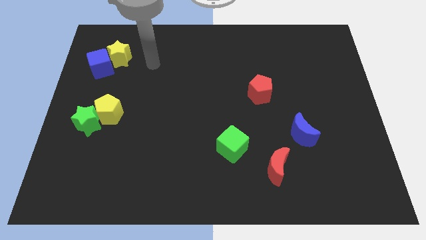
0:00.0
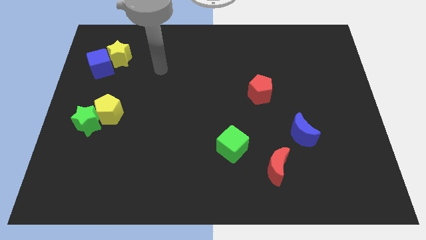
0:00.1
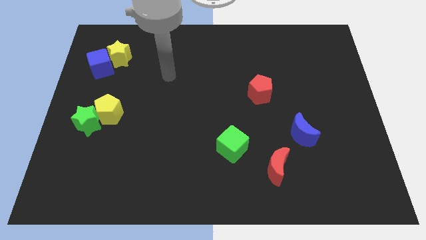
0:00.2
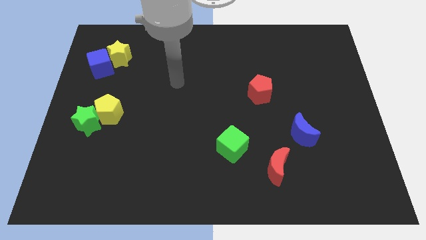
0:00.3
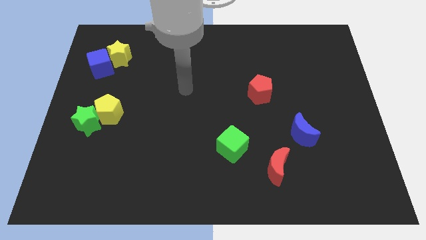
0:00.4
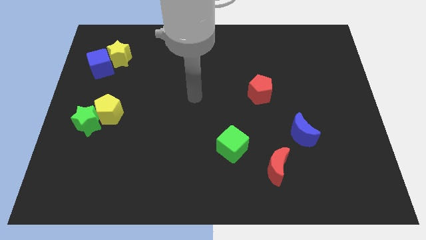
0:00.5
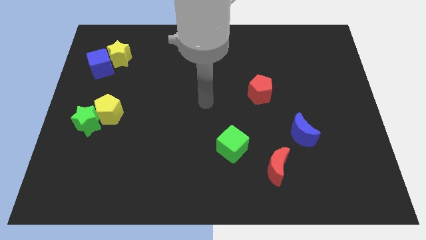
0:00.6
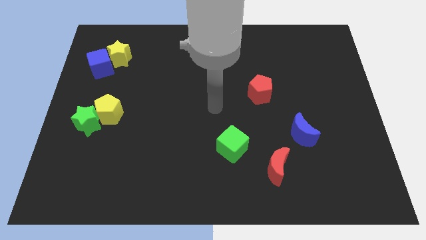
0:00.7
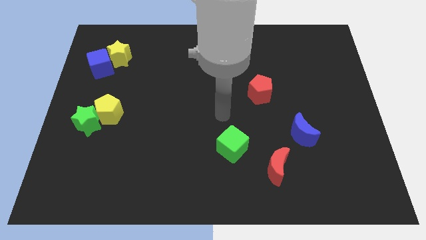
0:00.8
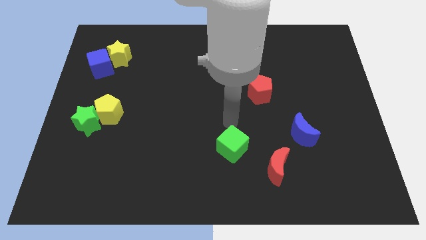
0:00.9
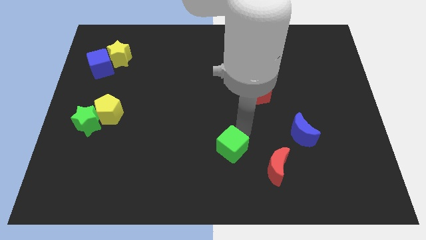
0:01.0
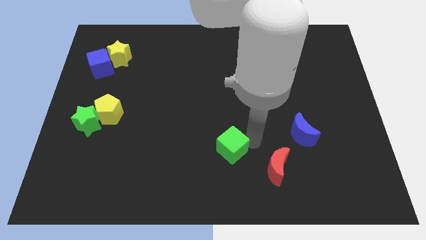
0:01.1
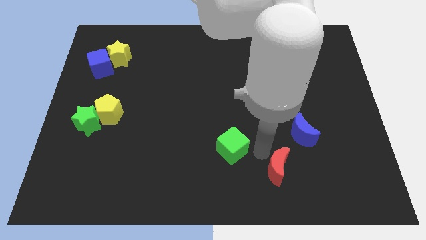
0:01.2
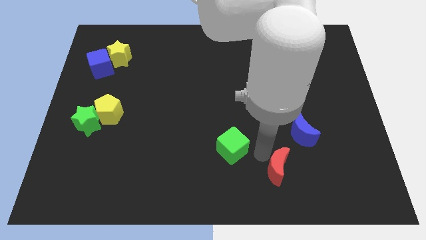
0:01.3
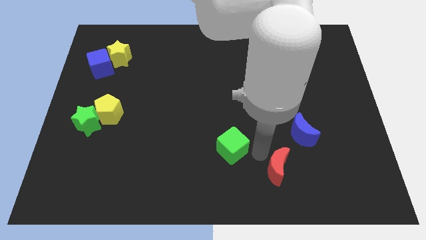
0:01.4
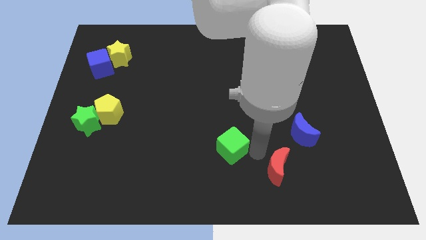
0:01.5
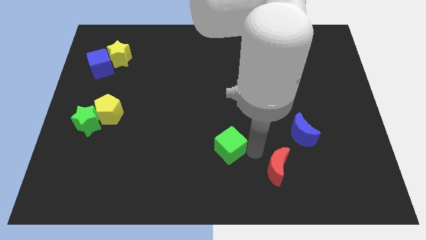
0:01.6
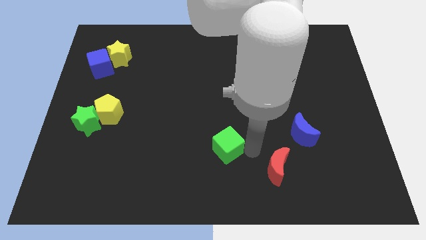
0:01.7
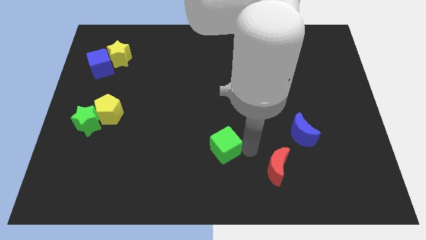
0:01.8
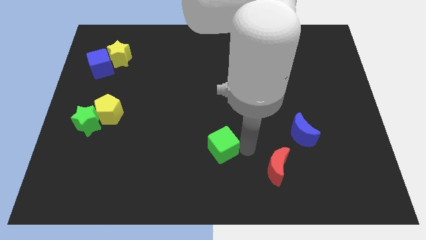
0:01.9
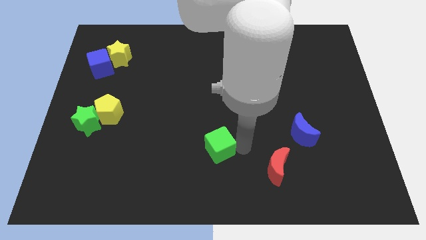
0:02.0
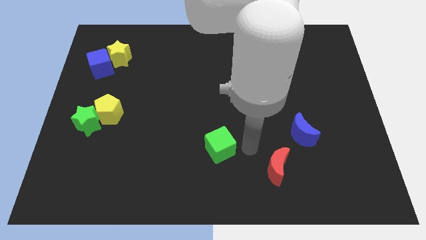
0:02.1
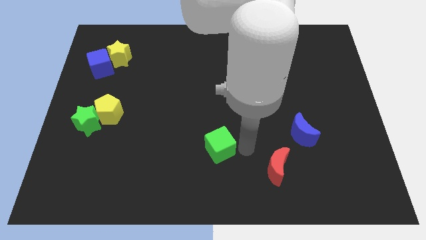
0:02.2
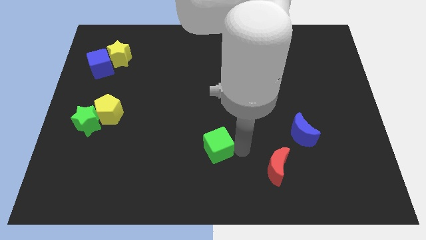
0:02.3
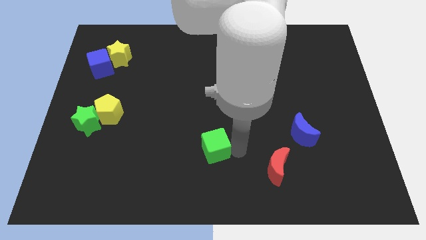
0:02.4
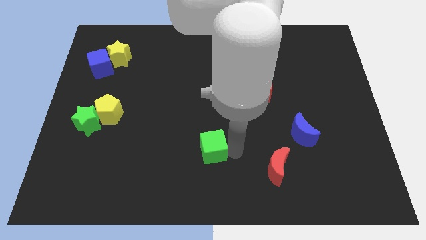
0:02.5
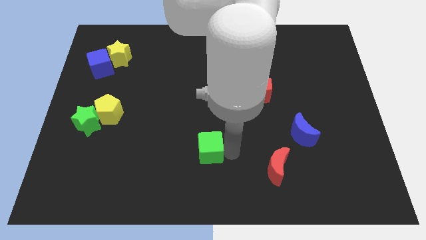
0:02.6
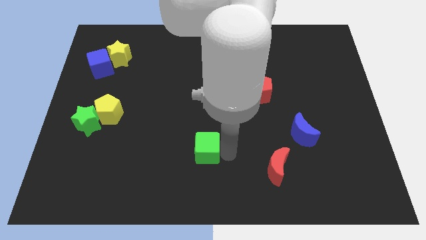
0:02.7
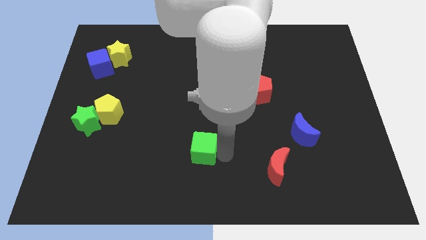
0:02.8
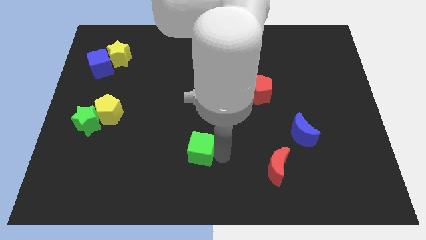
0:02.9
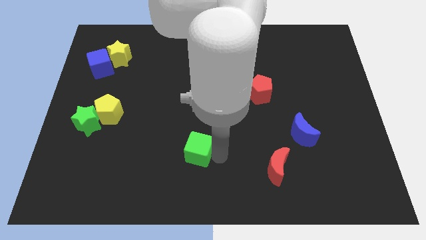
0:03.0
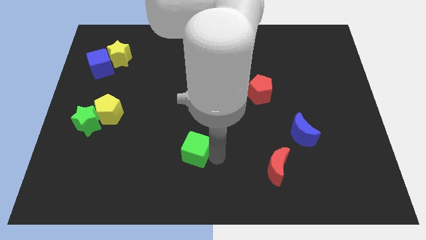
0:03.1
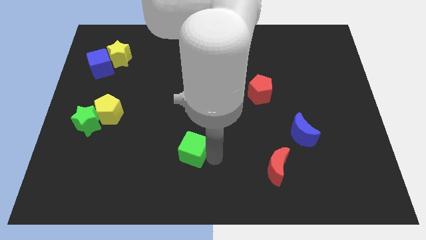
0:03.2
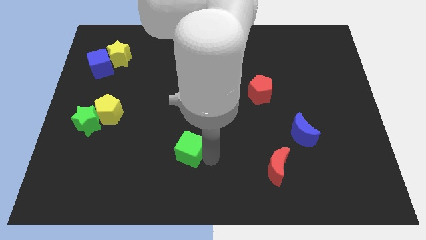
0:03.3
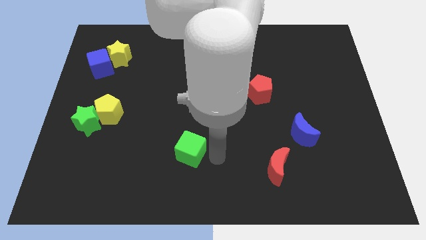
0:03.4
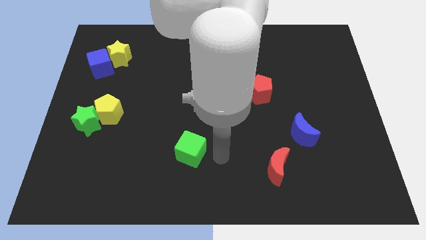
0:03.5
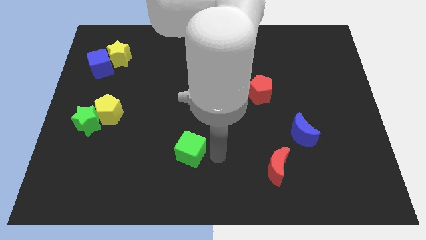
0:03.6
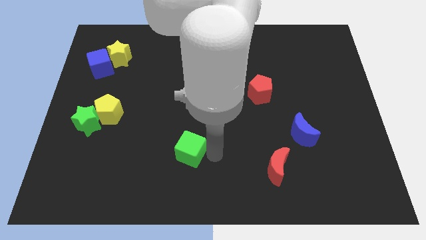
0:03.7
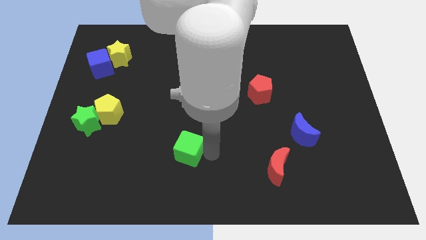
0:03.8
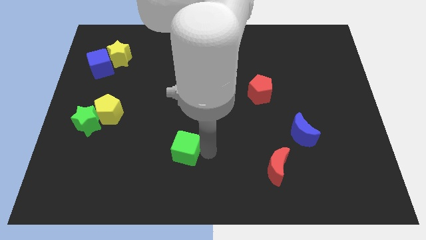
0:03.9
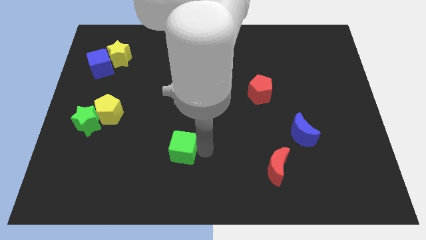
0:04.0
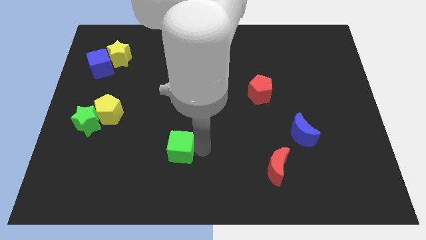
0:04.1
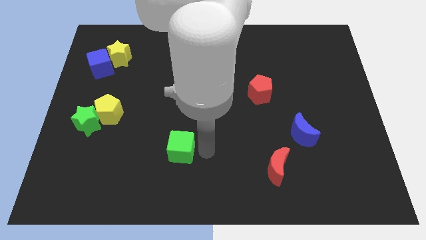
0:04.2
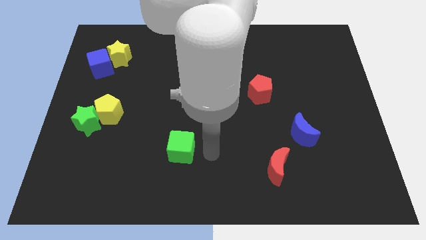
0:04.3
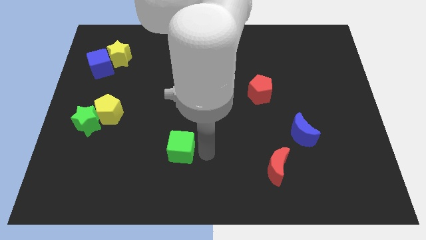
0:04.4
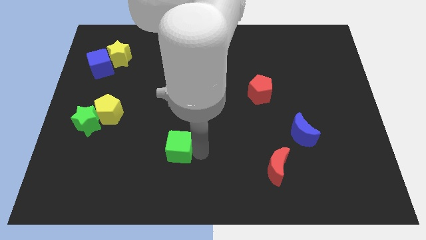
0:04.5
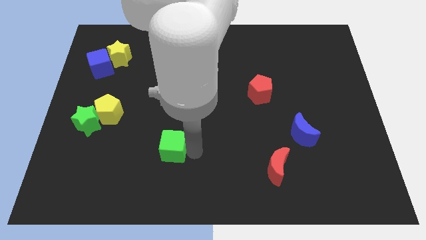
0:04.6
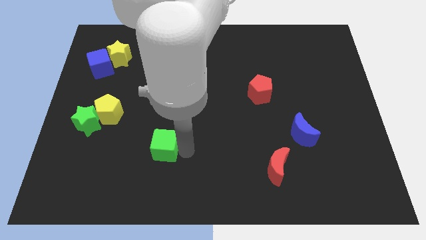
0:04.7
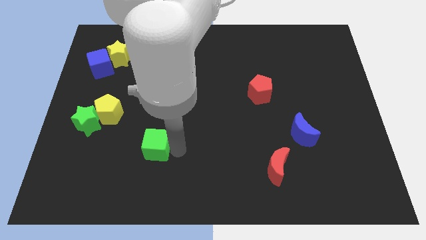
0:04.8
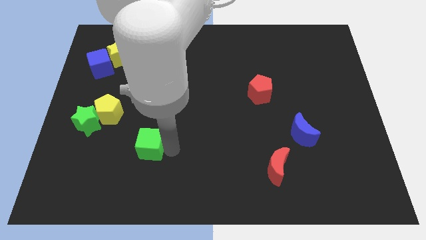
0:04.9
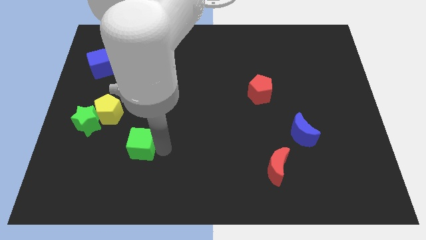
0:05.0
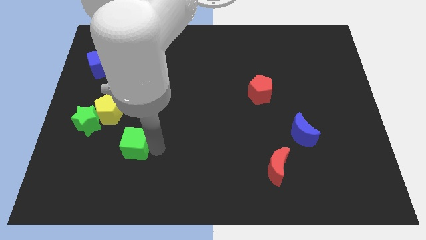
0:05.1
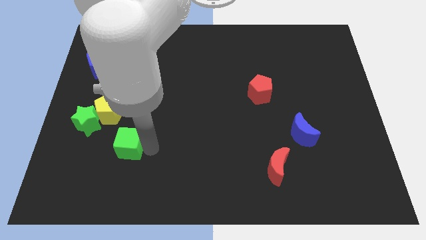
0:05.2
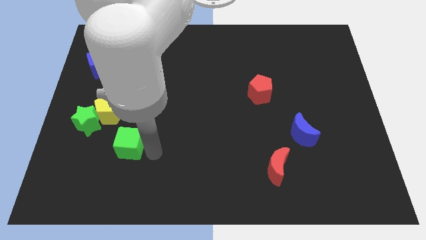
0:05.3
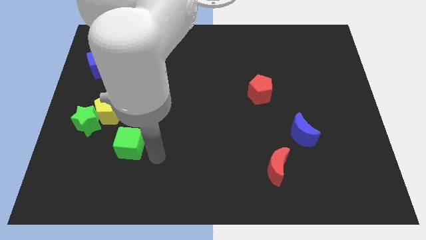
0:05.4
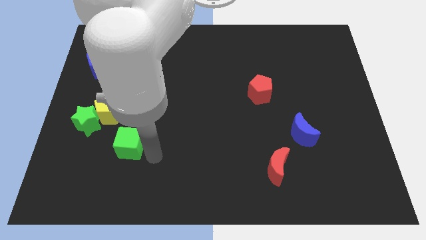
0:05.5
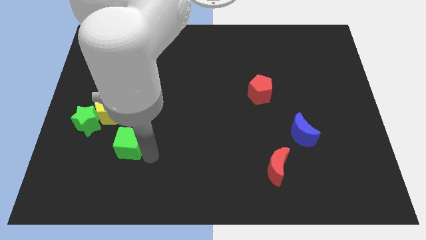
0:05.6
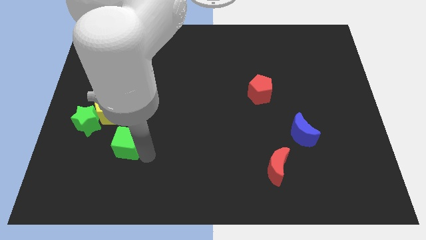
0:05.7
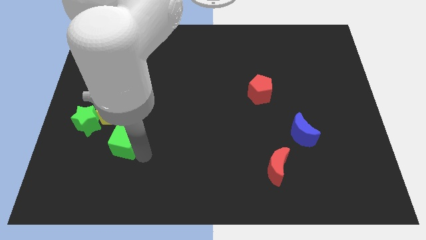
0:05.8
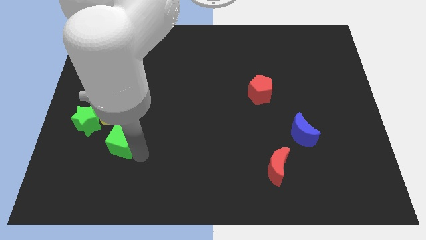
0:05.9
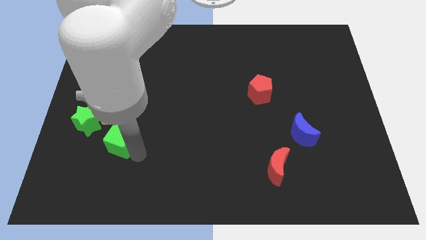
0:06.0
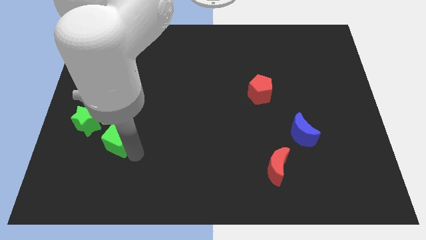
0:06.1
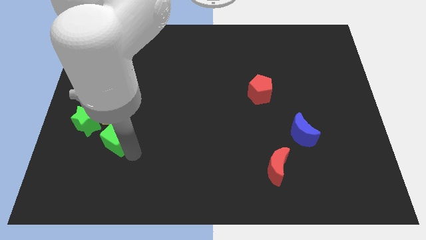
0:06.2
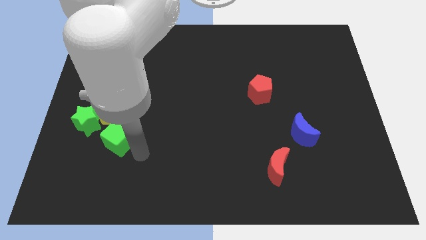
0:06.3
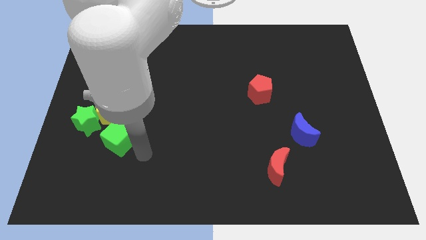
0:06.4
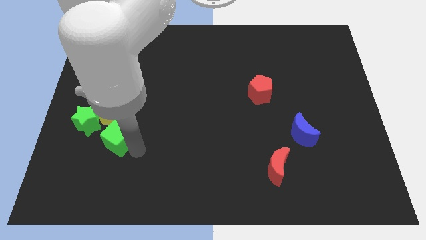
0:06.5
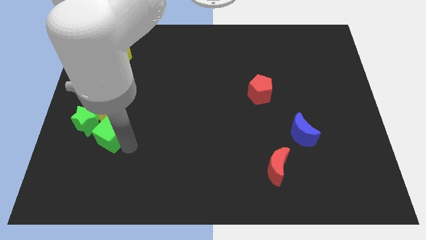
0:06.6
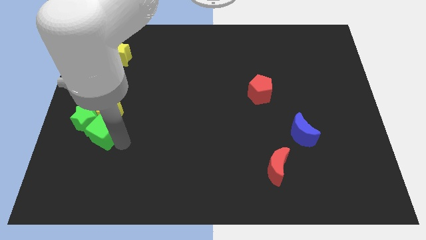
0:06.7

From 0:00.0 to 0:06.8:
put the green cube close to the green star
